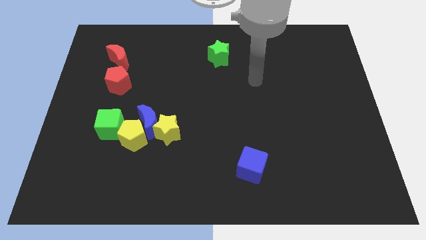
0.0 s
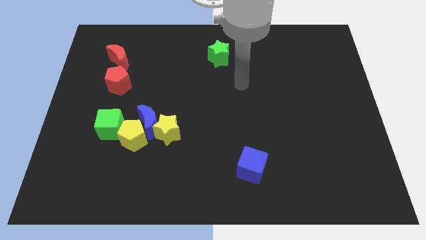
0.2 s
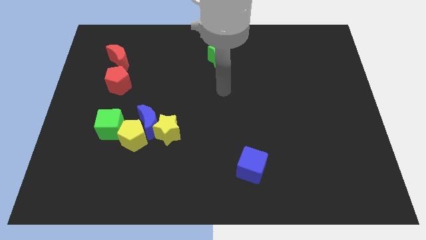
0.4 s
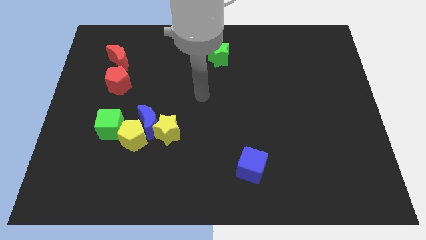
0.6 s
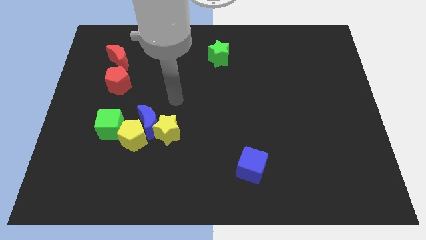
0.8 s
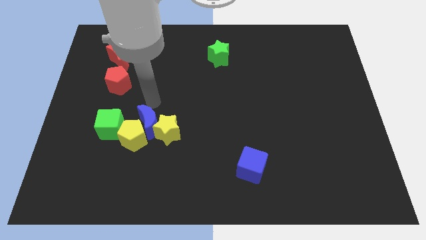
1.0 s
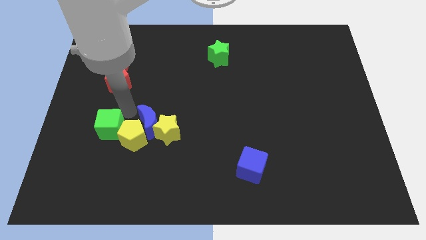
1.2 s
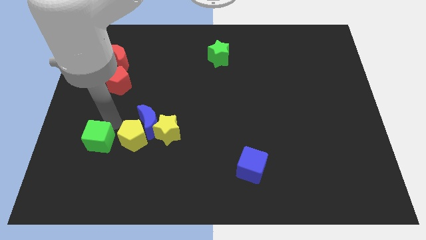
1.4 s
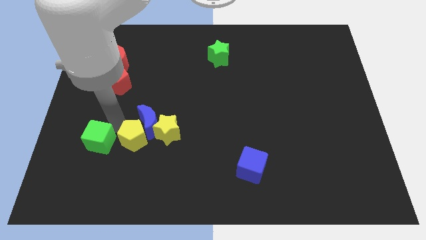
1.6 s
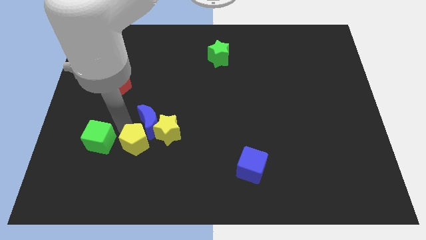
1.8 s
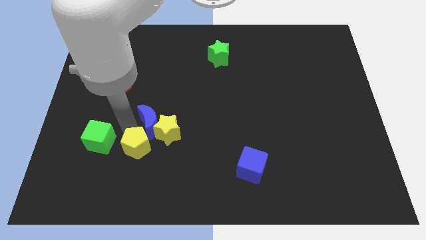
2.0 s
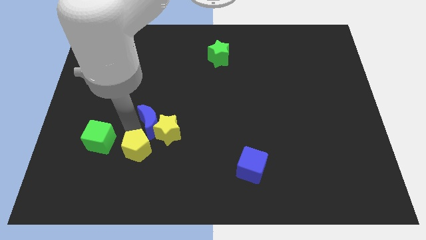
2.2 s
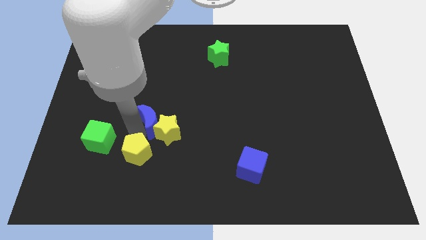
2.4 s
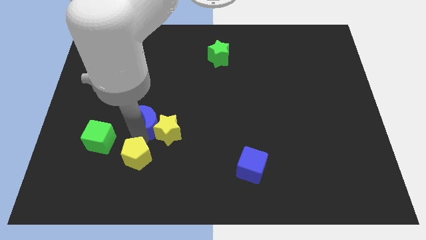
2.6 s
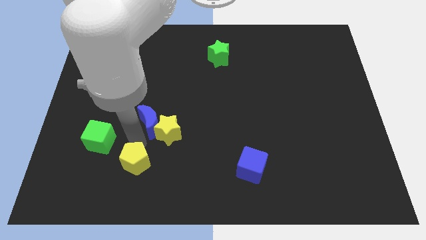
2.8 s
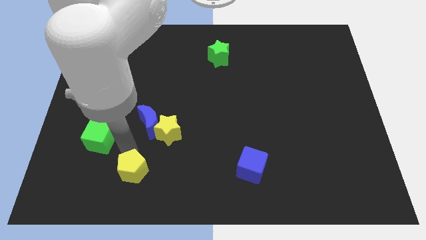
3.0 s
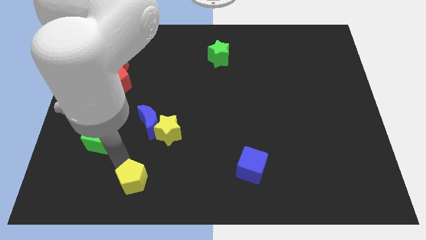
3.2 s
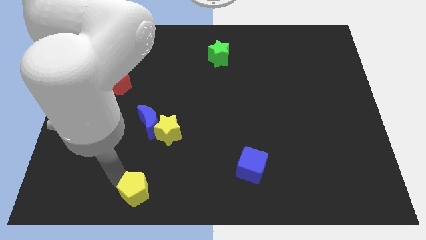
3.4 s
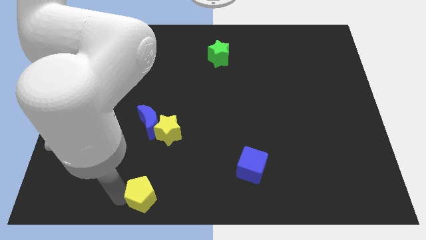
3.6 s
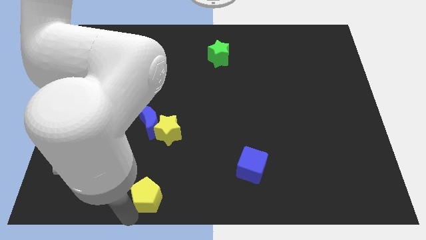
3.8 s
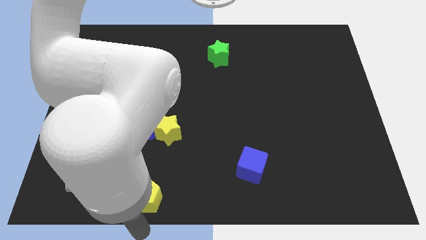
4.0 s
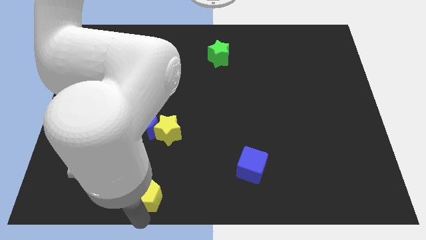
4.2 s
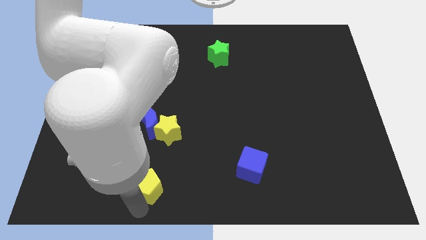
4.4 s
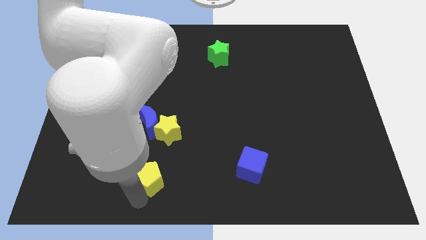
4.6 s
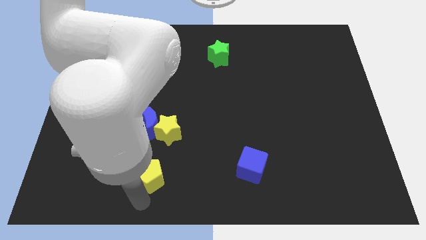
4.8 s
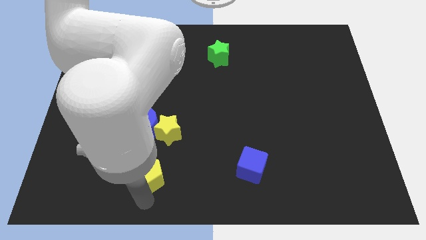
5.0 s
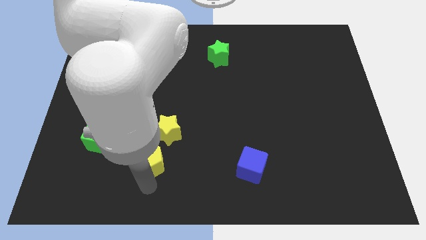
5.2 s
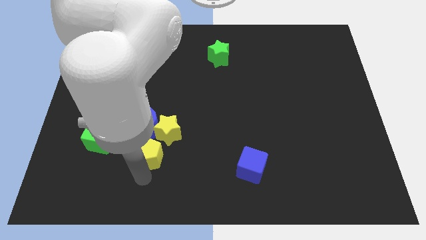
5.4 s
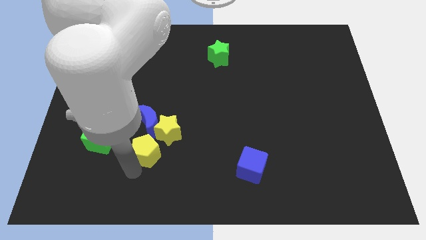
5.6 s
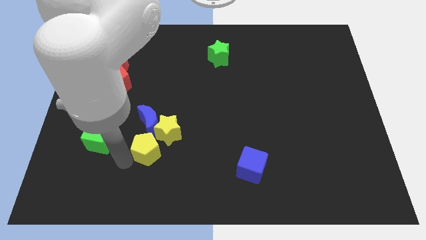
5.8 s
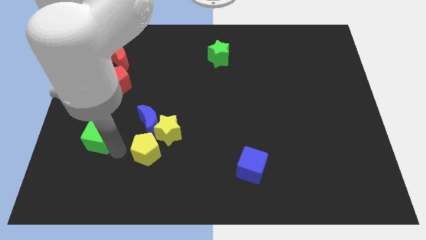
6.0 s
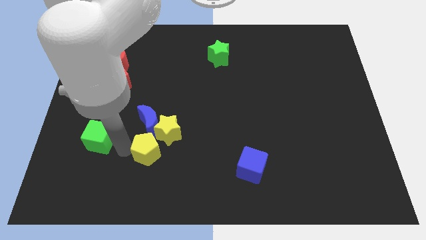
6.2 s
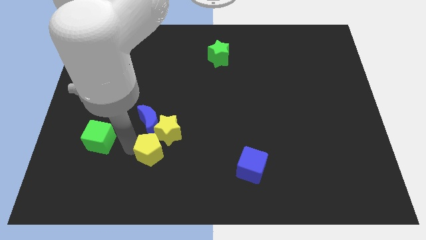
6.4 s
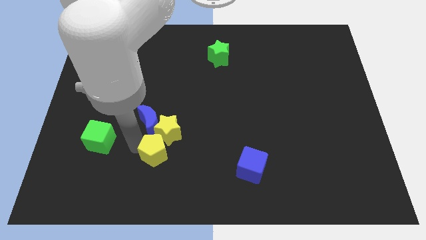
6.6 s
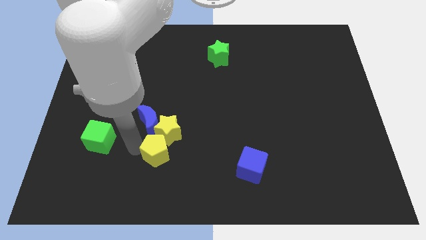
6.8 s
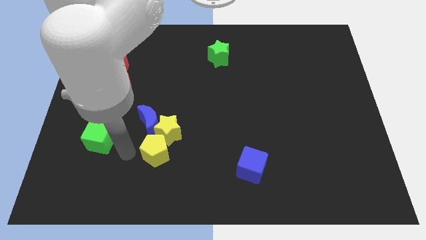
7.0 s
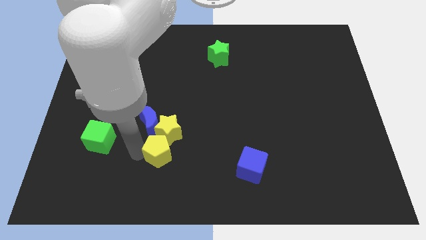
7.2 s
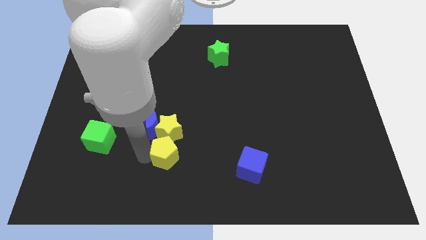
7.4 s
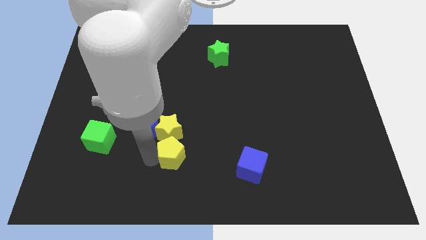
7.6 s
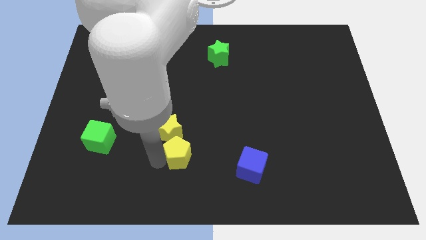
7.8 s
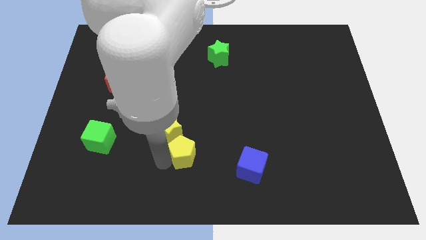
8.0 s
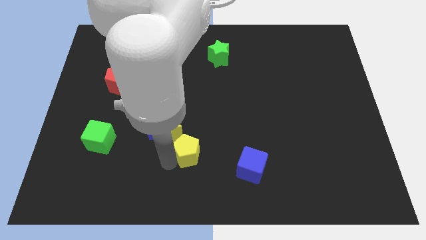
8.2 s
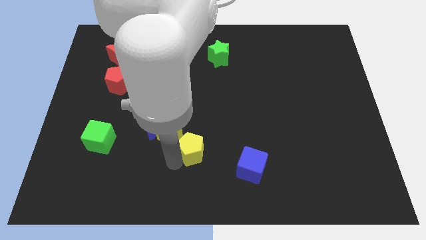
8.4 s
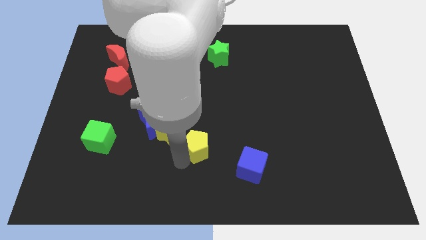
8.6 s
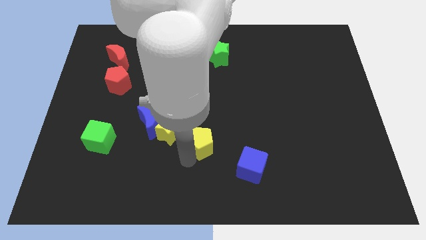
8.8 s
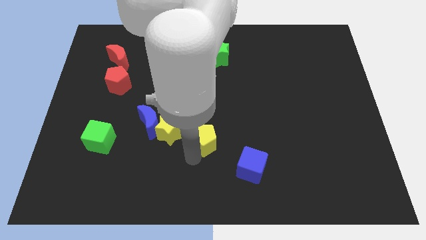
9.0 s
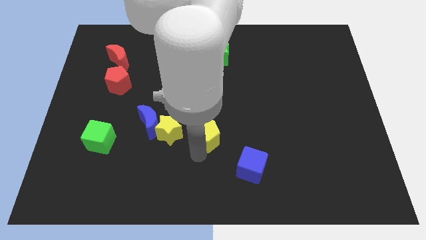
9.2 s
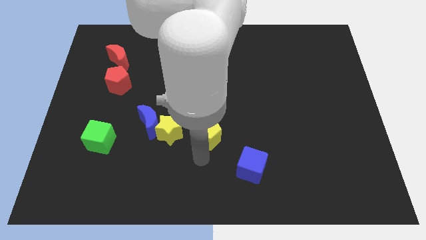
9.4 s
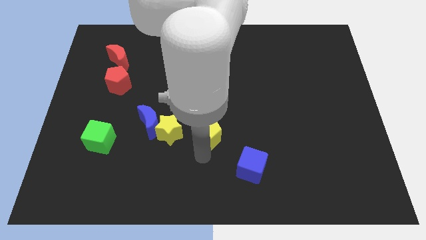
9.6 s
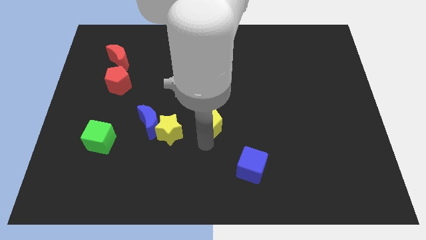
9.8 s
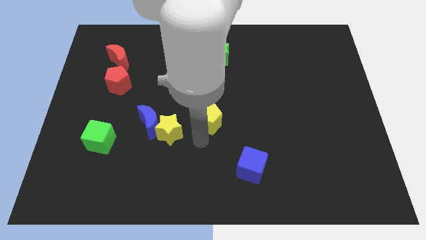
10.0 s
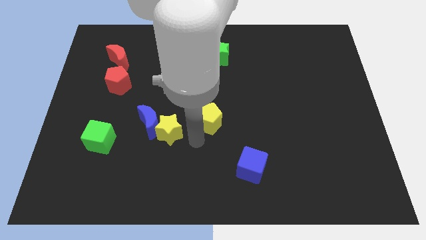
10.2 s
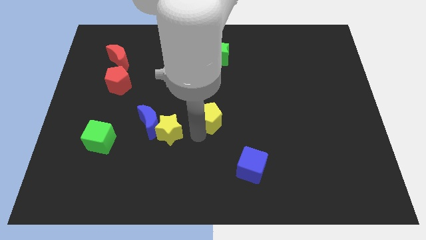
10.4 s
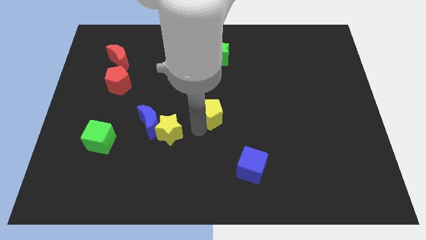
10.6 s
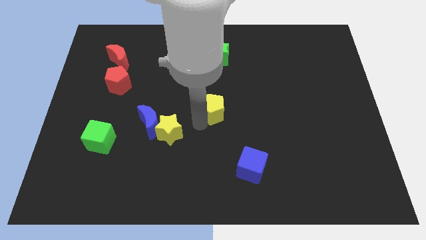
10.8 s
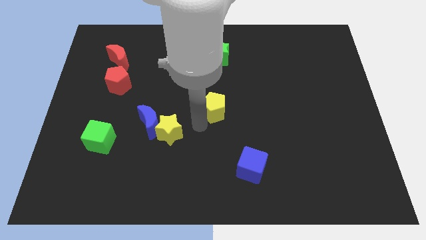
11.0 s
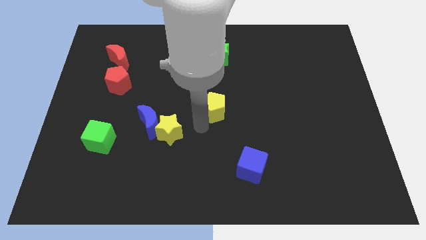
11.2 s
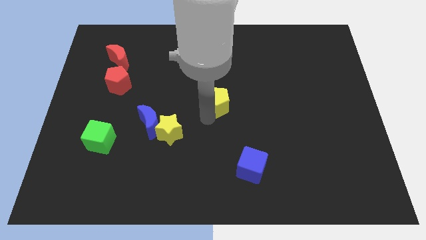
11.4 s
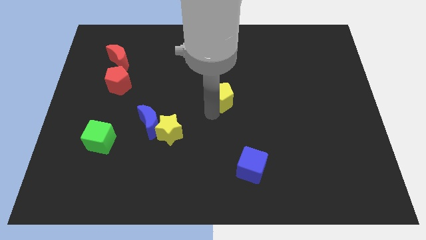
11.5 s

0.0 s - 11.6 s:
slide the yellow pentagon upwards and to the right diagonally

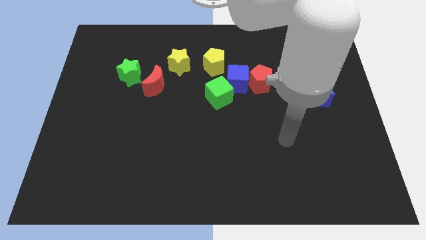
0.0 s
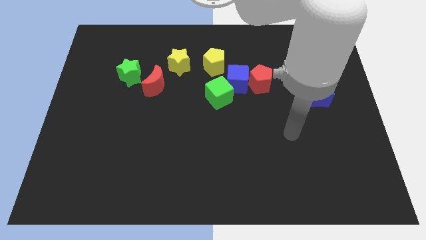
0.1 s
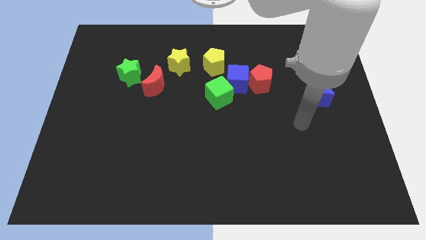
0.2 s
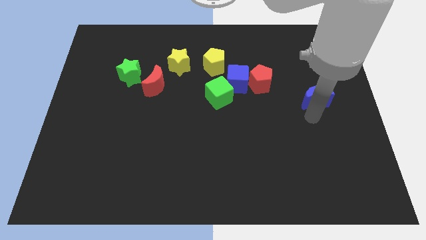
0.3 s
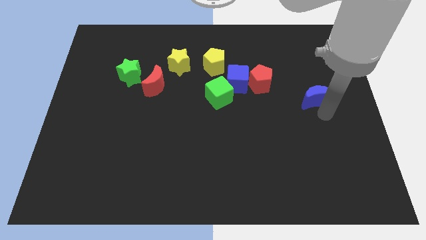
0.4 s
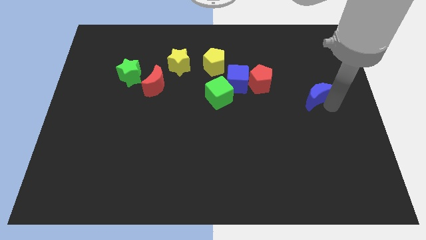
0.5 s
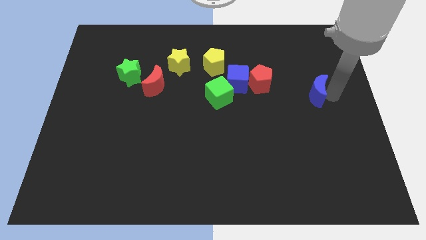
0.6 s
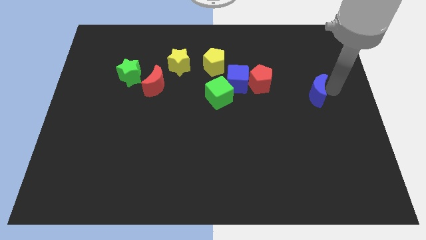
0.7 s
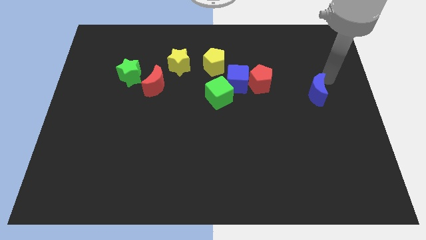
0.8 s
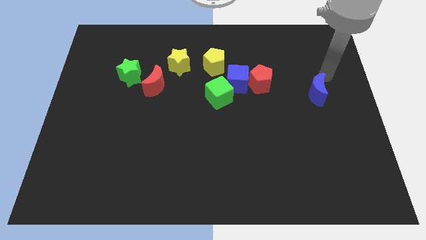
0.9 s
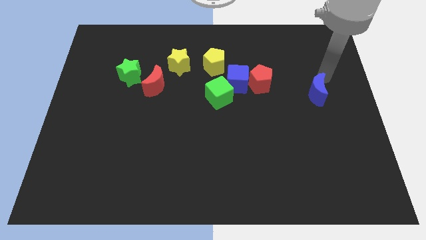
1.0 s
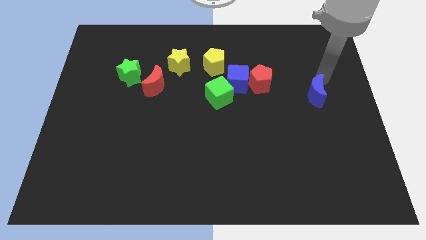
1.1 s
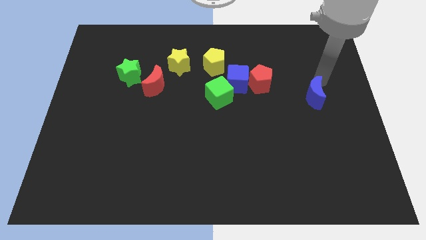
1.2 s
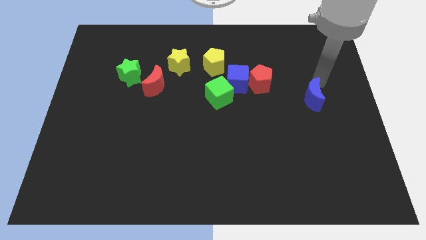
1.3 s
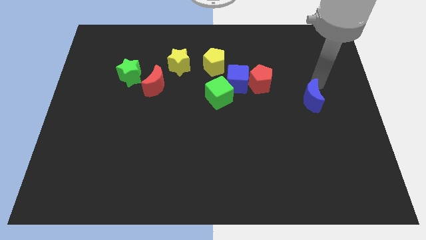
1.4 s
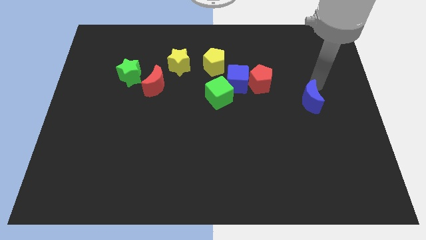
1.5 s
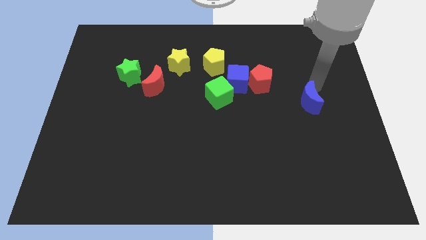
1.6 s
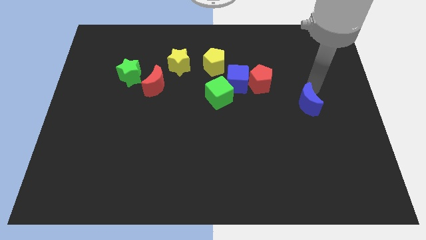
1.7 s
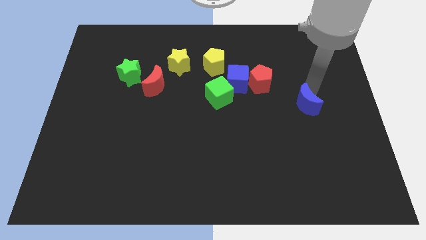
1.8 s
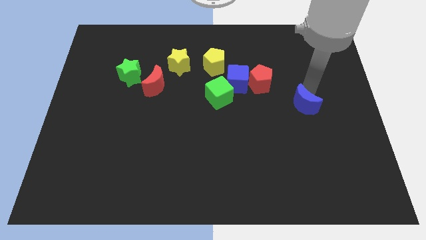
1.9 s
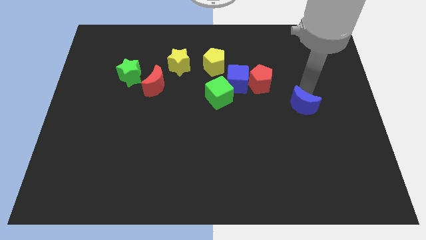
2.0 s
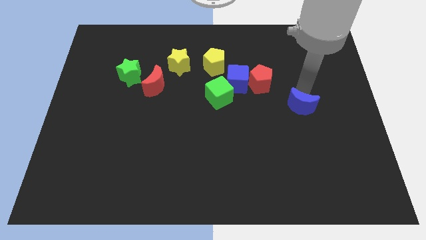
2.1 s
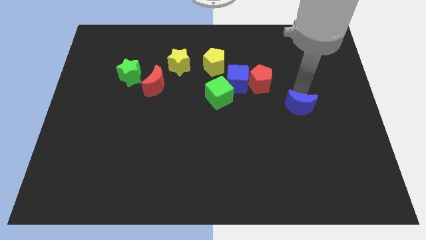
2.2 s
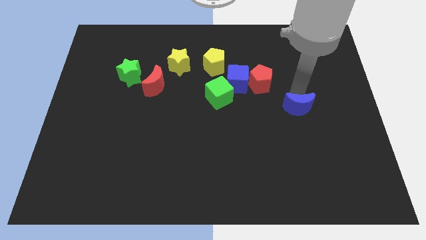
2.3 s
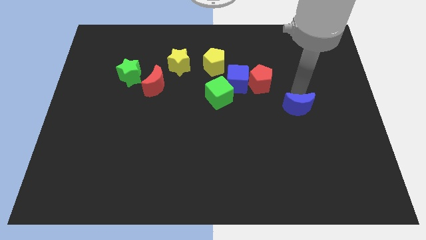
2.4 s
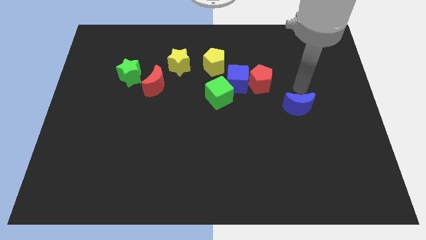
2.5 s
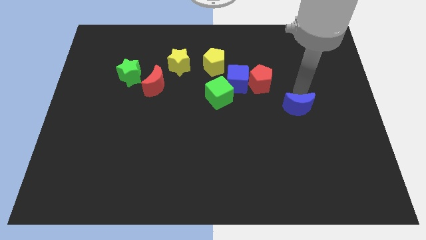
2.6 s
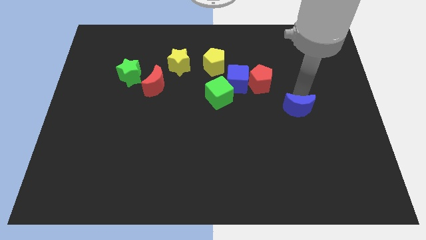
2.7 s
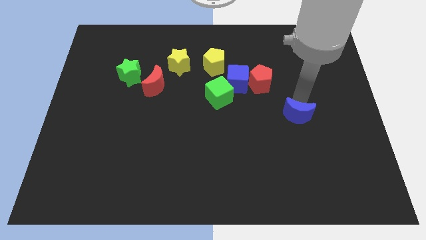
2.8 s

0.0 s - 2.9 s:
push the blue moon somewhat downwards and then left
